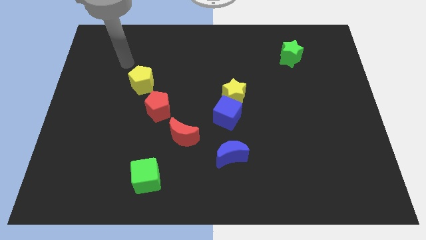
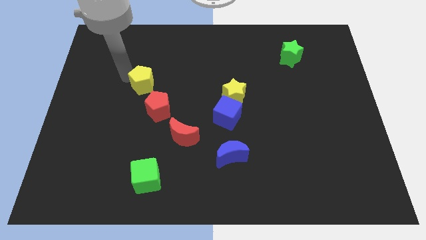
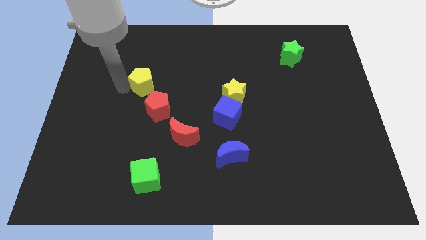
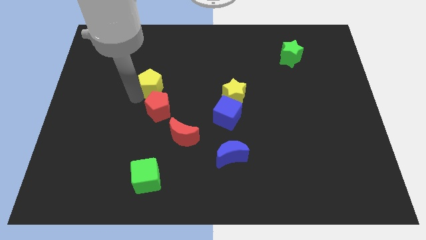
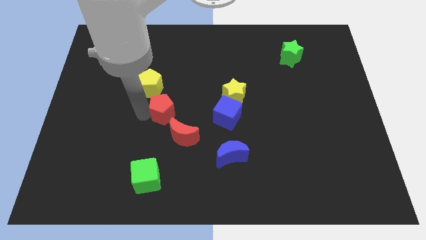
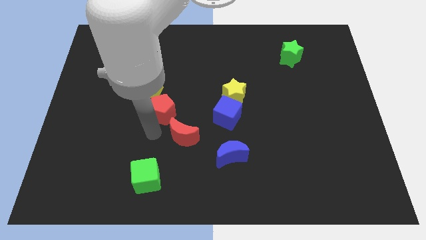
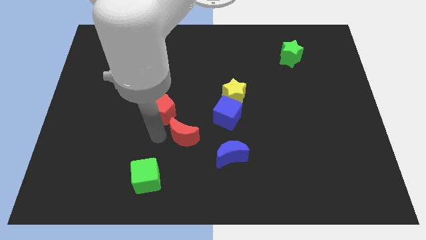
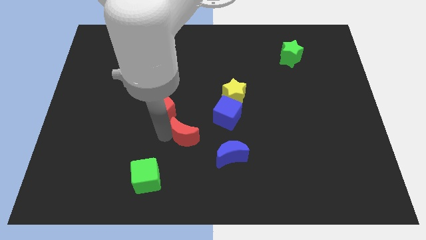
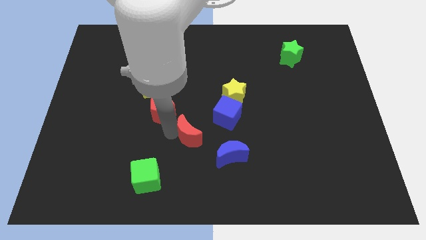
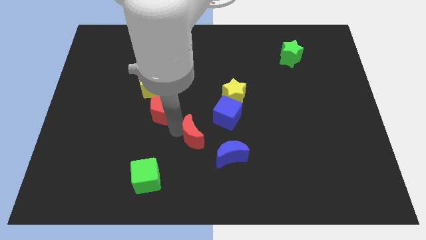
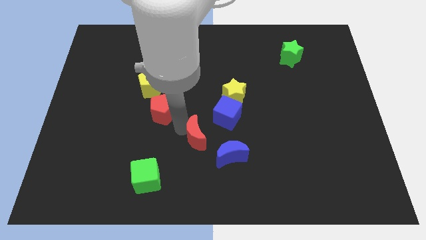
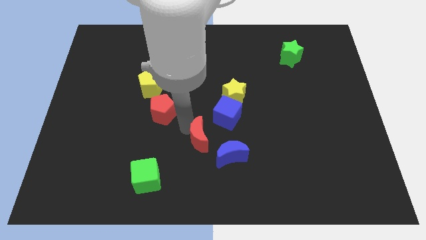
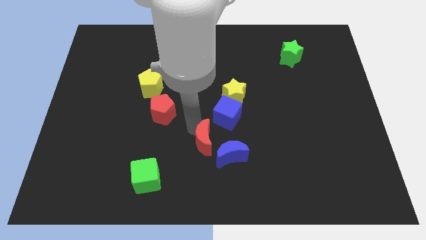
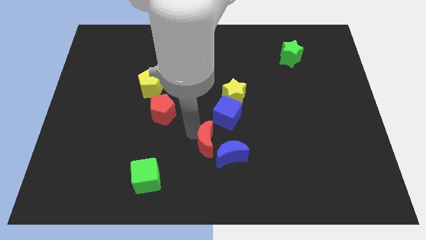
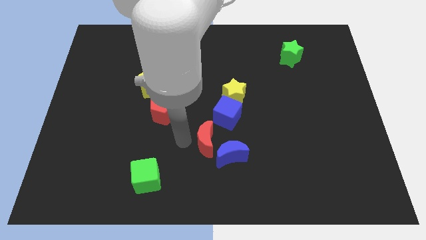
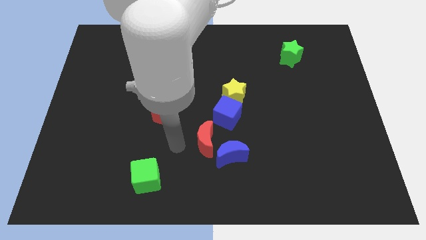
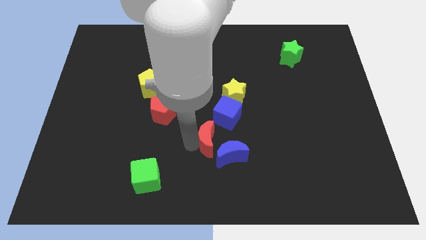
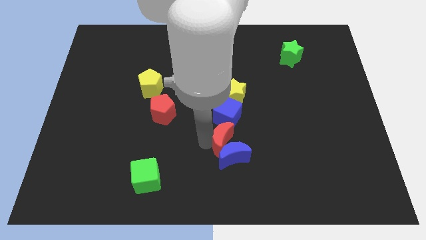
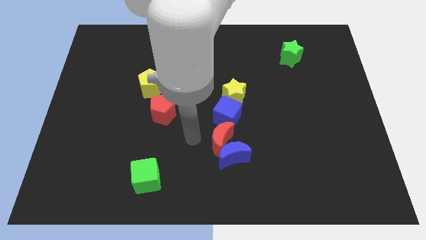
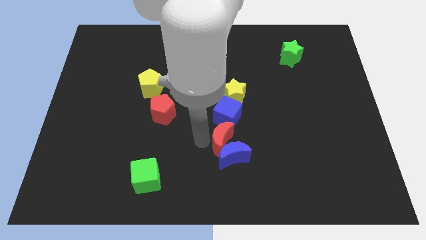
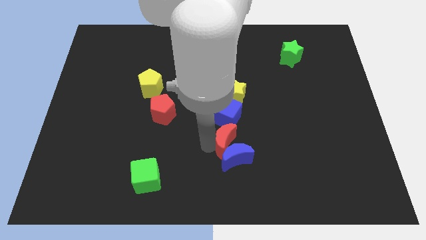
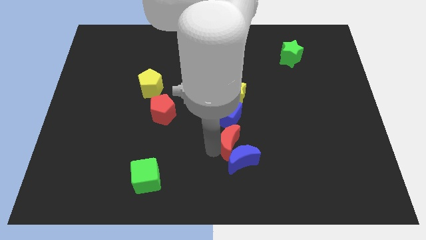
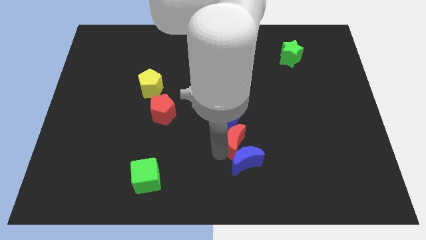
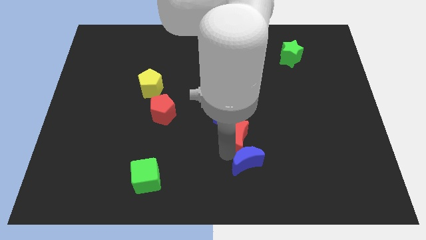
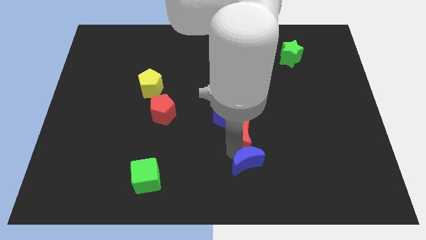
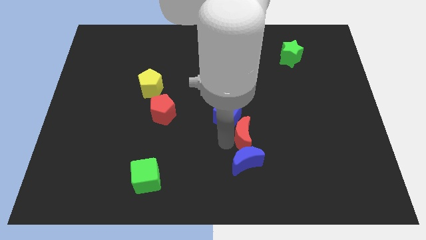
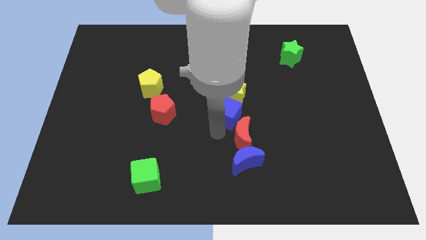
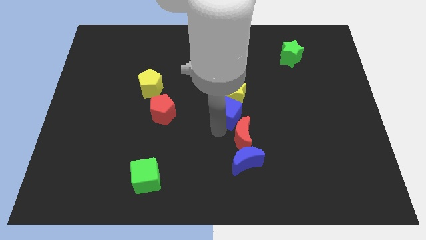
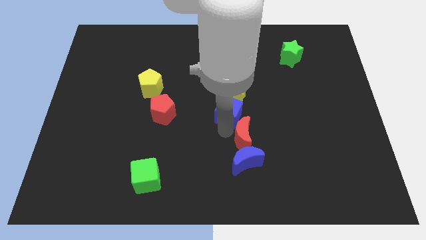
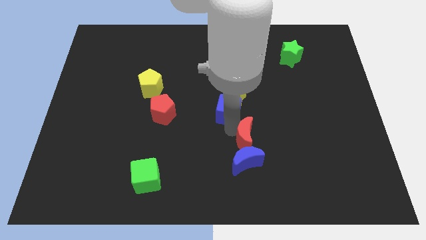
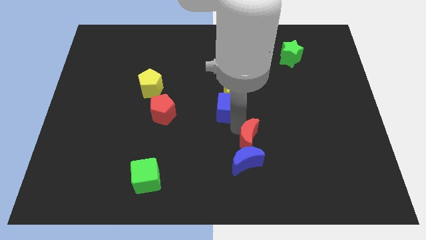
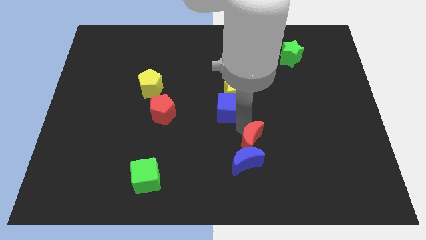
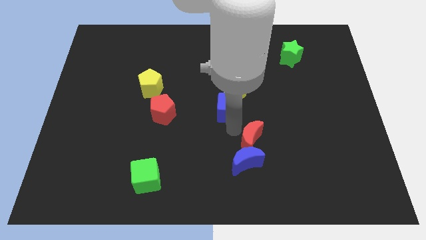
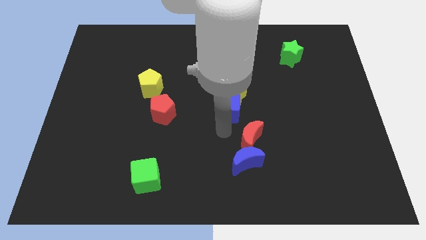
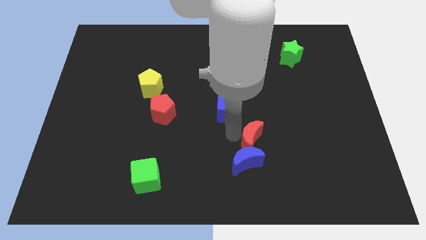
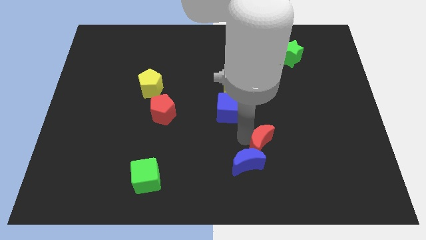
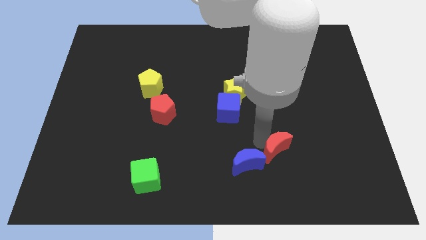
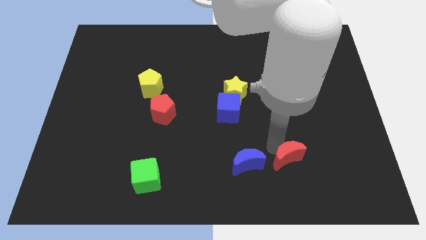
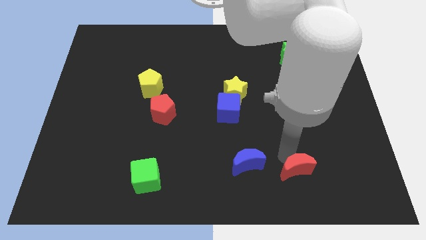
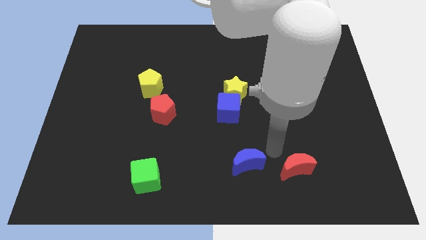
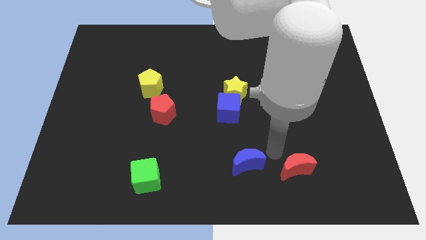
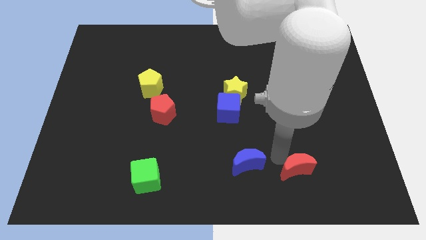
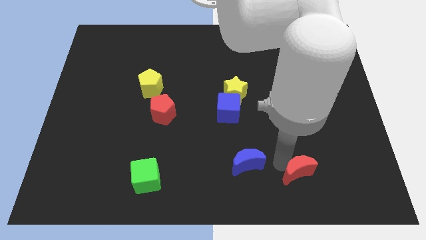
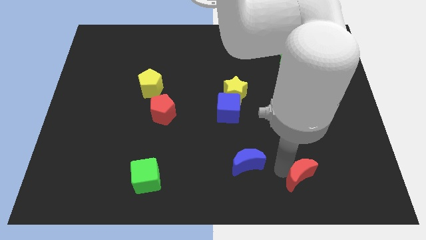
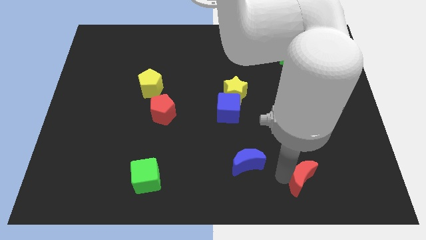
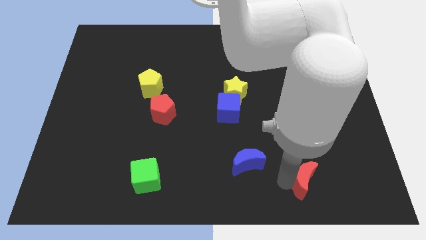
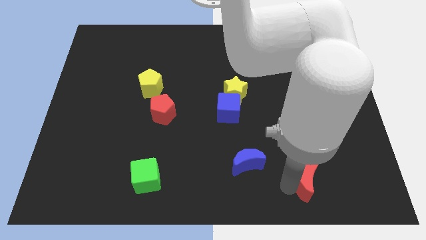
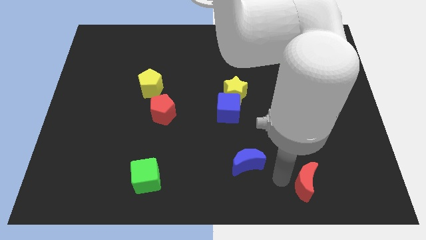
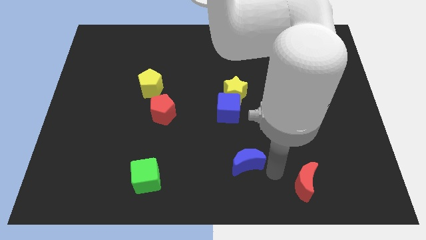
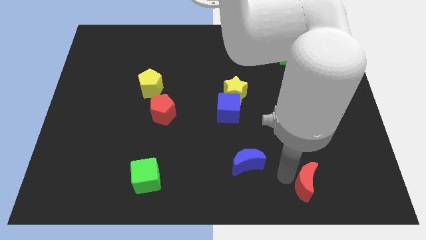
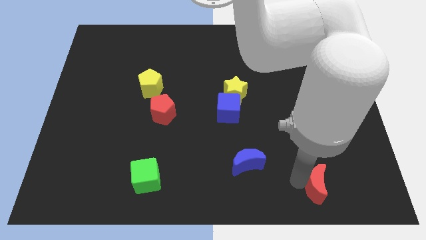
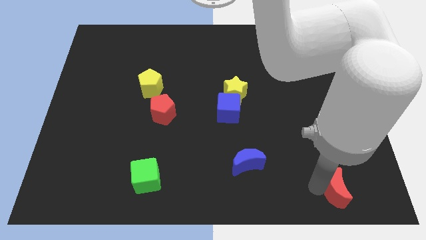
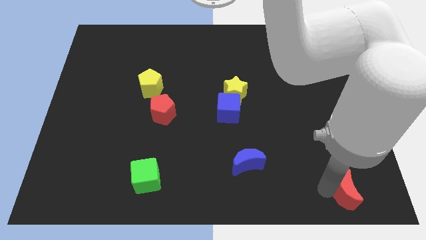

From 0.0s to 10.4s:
put the red moon to the bottom right of the board

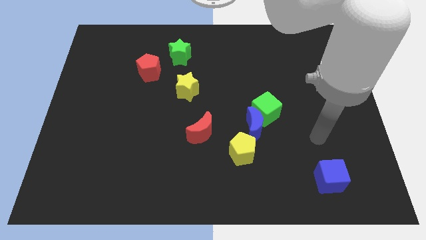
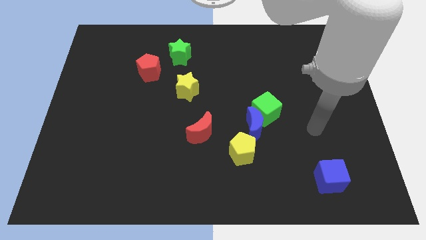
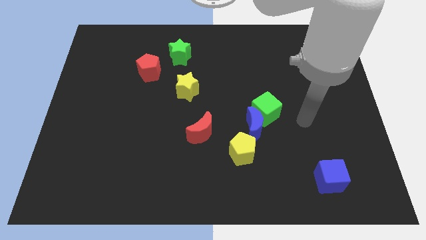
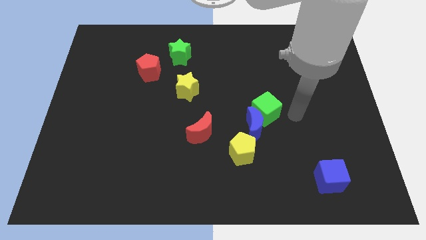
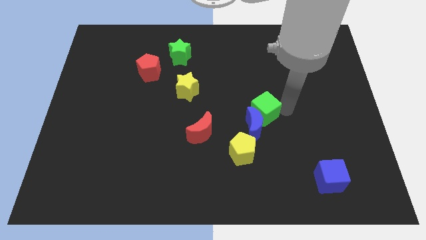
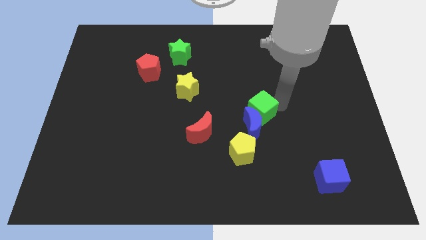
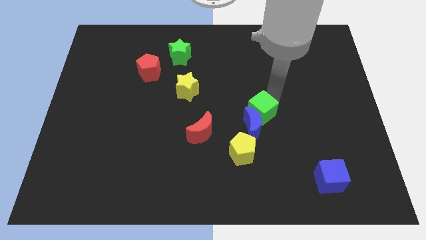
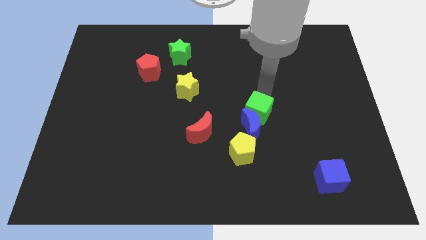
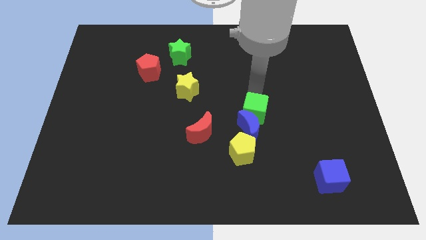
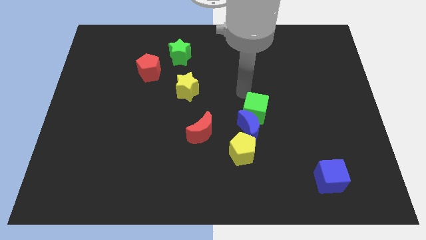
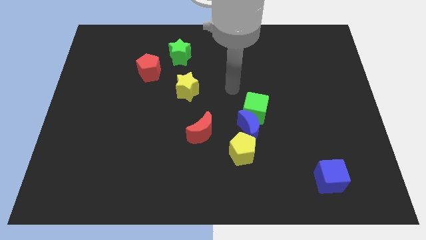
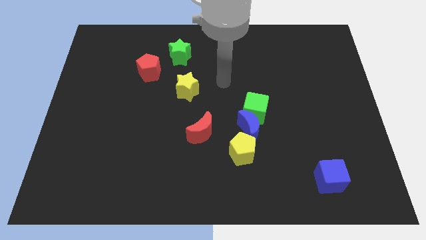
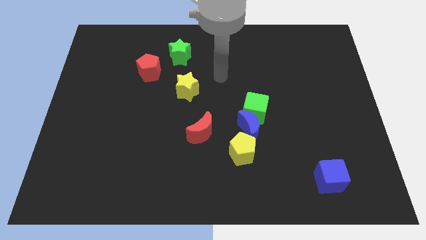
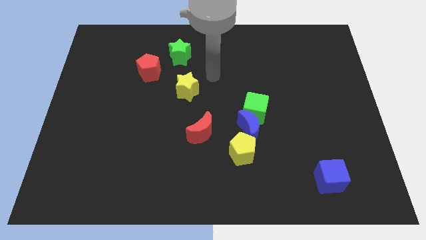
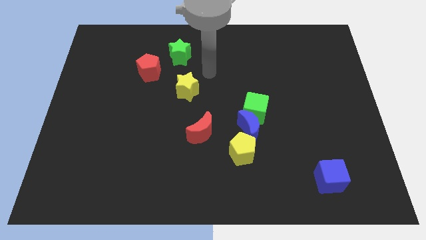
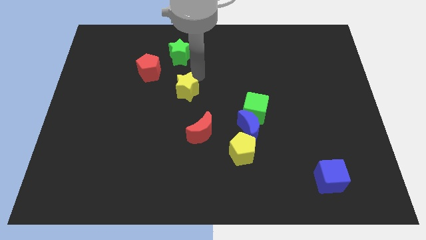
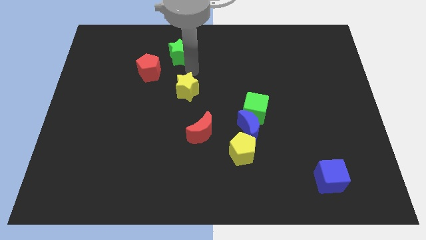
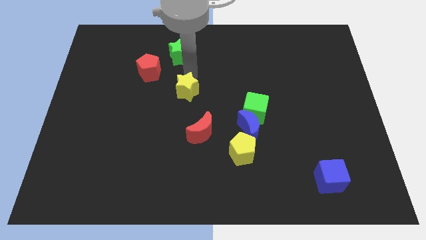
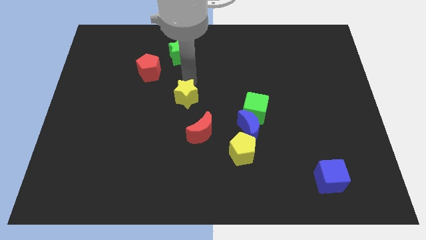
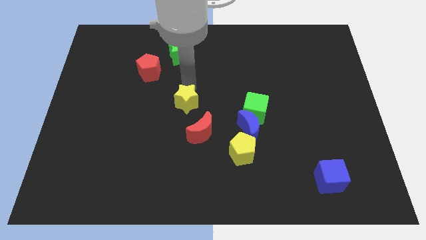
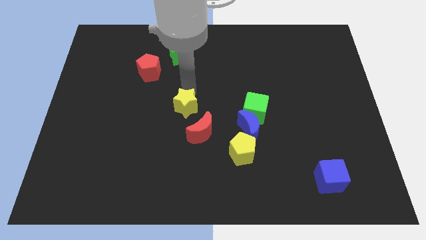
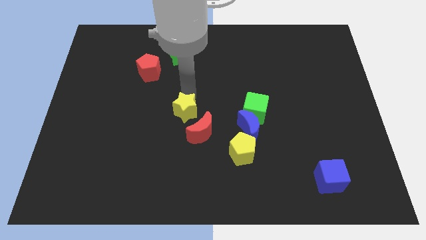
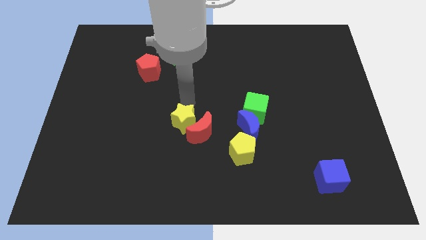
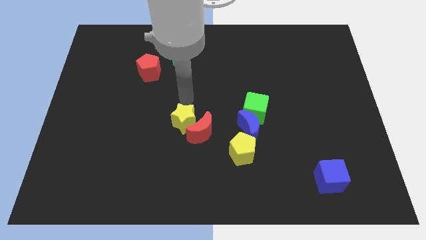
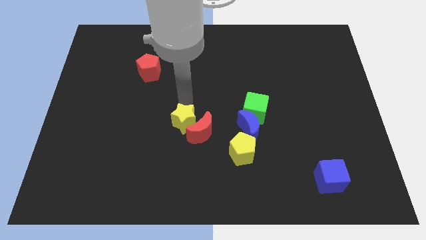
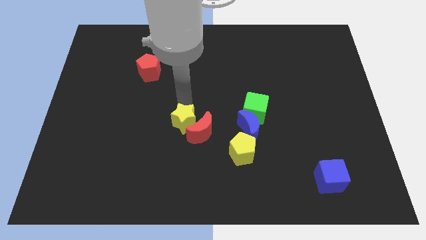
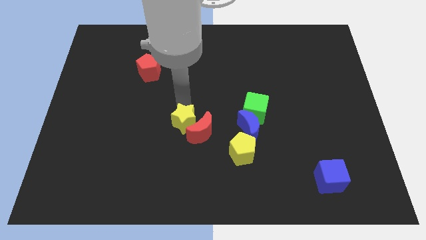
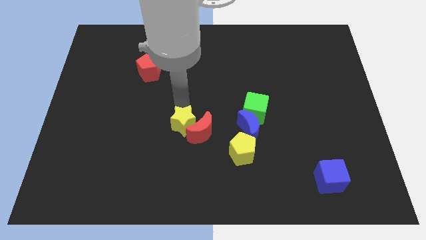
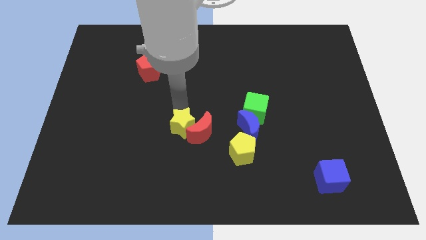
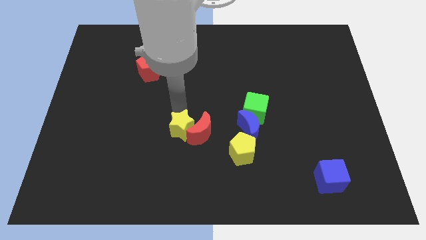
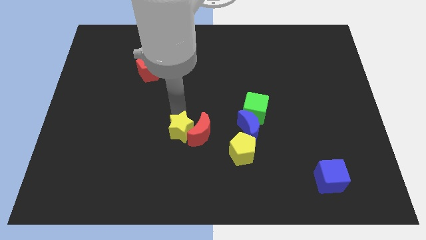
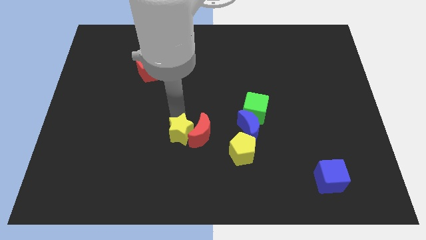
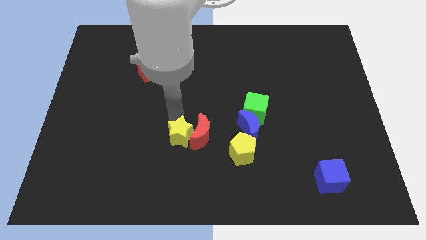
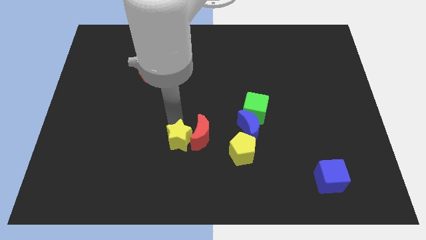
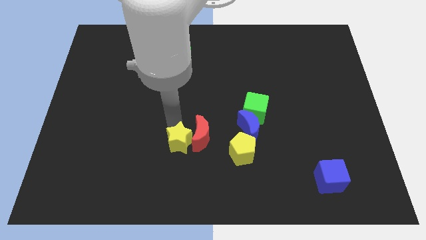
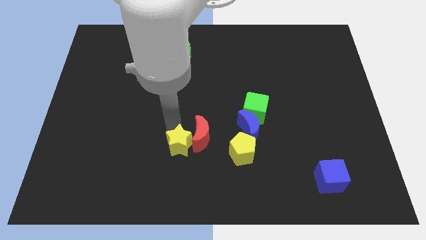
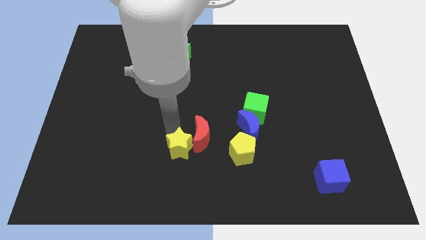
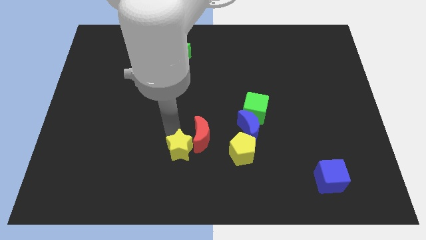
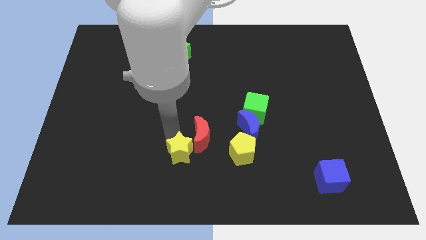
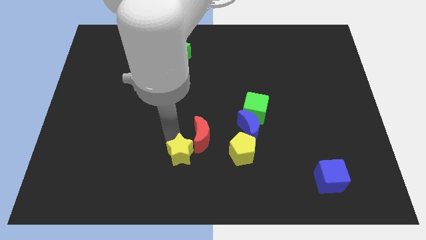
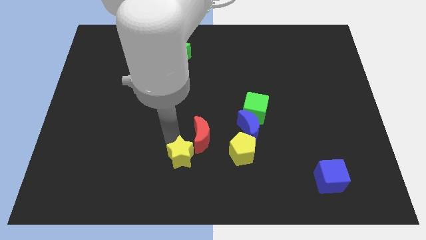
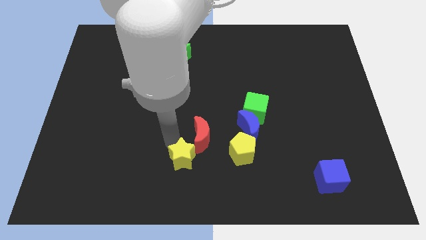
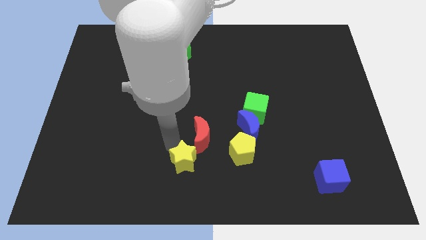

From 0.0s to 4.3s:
put the yellow star to the bottom side
